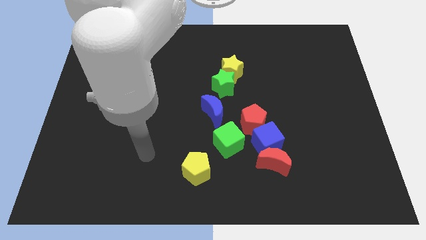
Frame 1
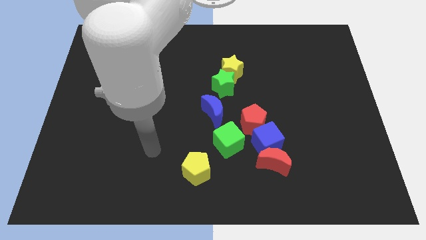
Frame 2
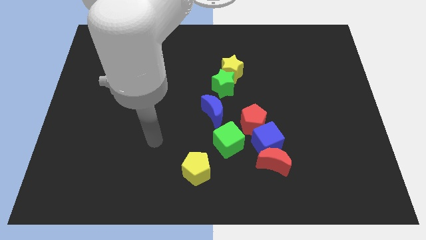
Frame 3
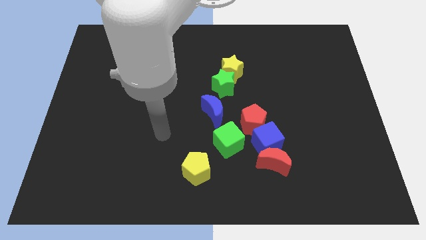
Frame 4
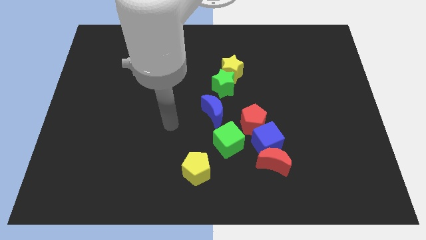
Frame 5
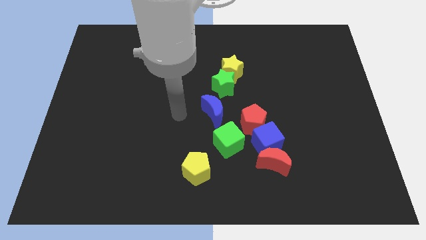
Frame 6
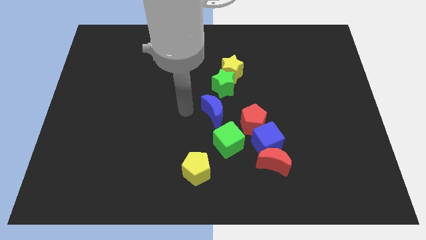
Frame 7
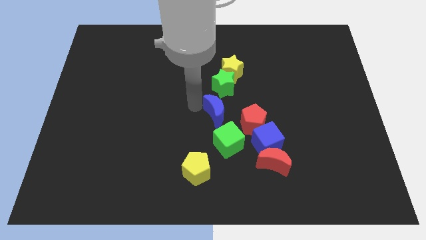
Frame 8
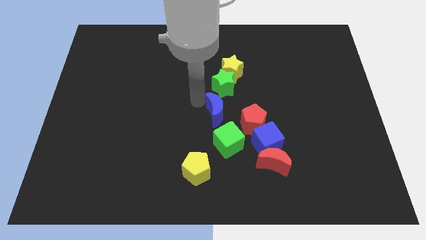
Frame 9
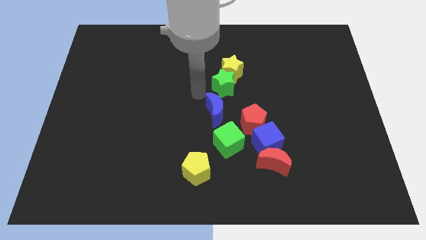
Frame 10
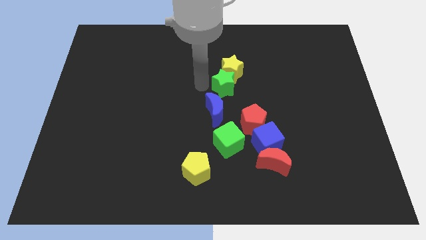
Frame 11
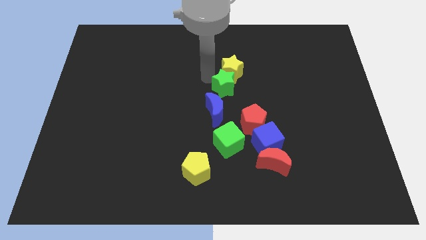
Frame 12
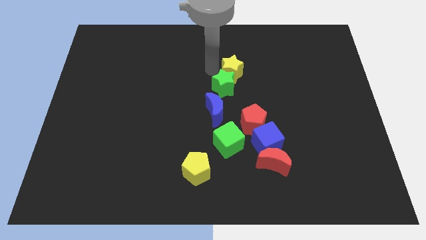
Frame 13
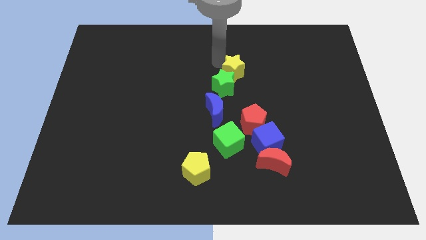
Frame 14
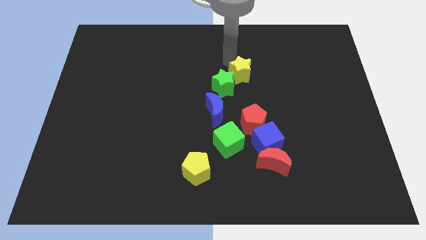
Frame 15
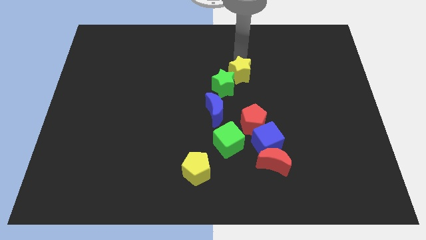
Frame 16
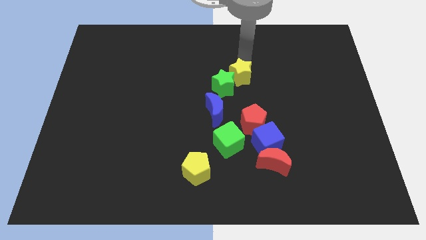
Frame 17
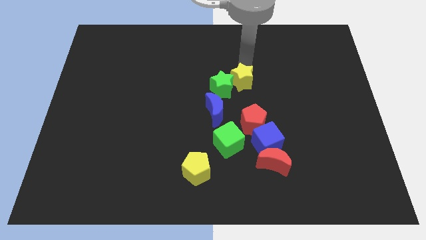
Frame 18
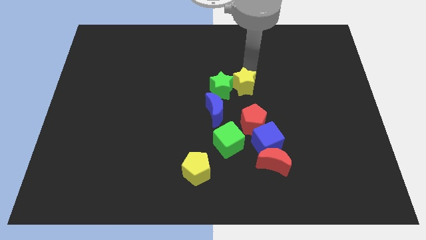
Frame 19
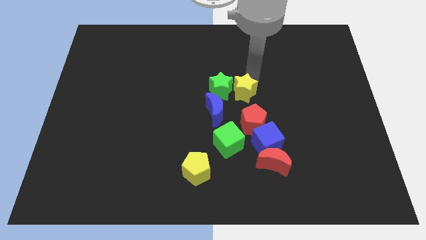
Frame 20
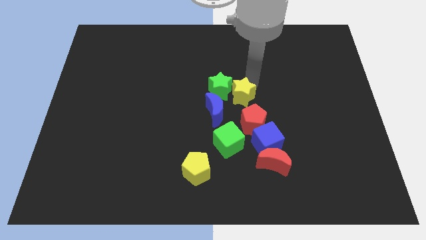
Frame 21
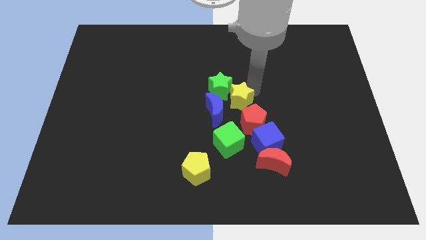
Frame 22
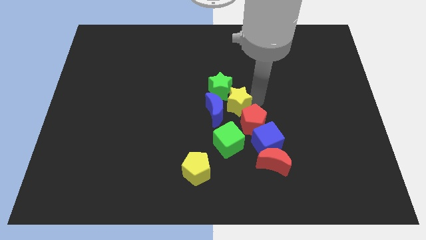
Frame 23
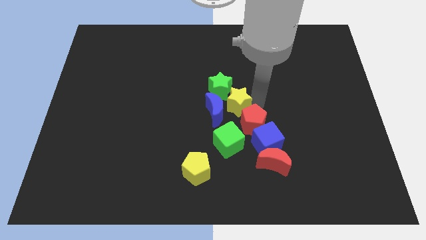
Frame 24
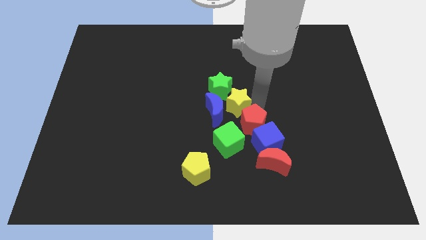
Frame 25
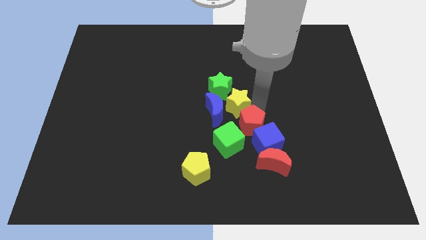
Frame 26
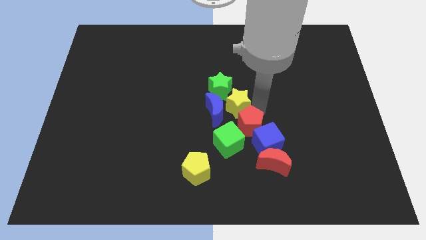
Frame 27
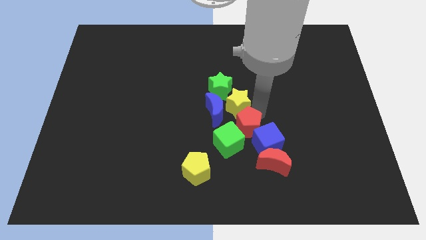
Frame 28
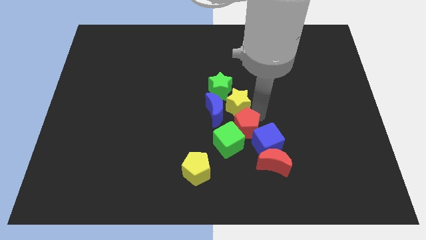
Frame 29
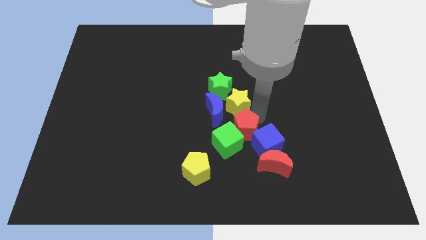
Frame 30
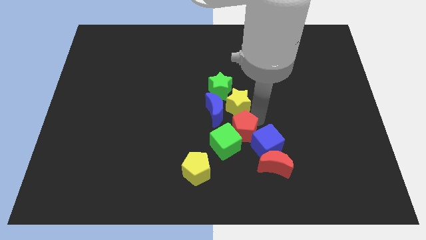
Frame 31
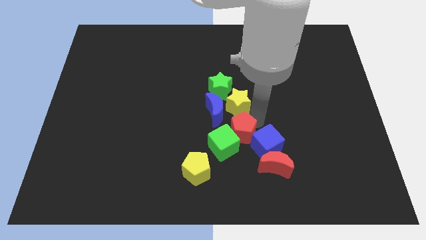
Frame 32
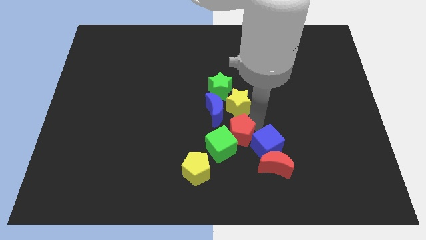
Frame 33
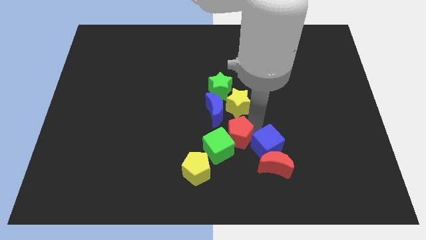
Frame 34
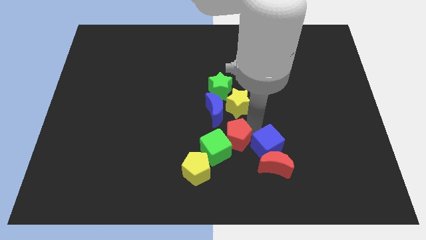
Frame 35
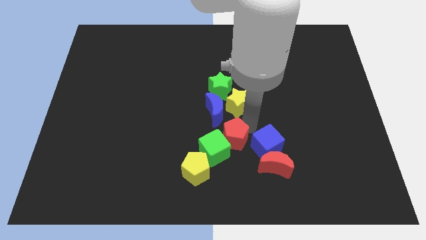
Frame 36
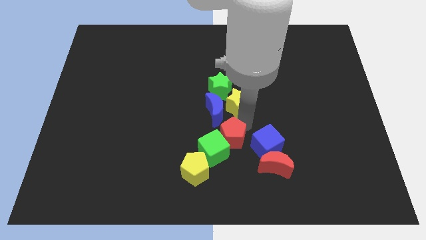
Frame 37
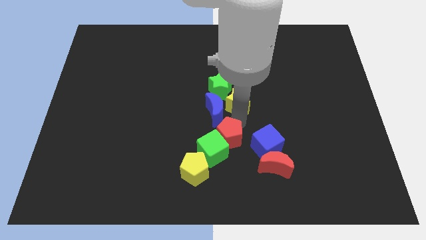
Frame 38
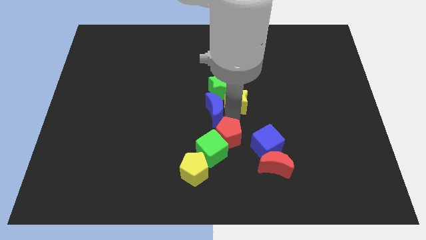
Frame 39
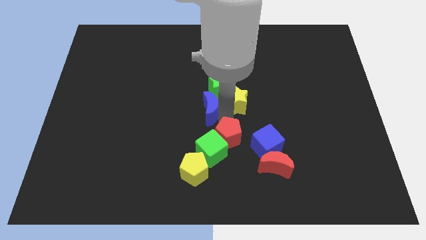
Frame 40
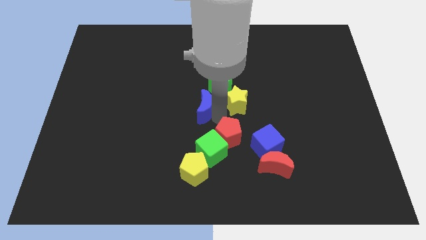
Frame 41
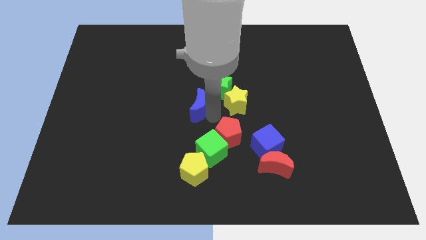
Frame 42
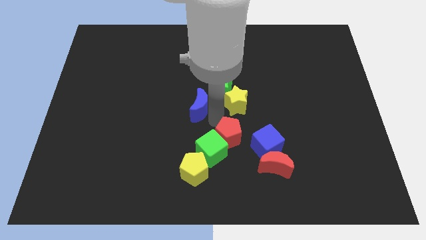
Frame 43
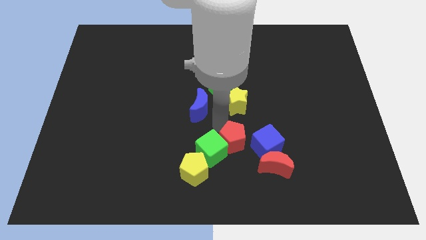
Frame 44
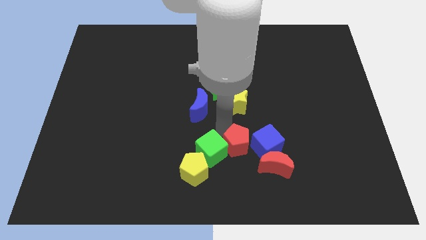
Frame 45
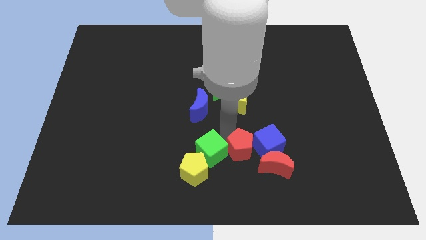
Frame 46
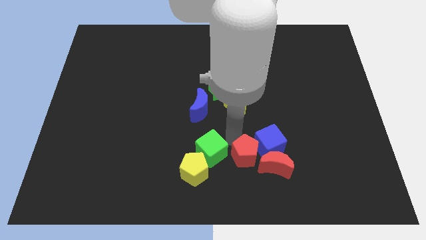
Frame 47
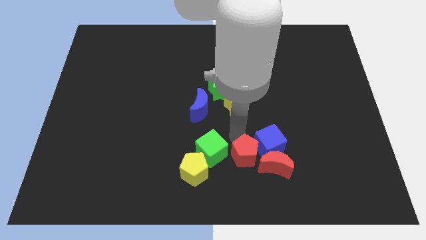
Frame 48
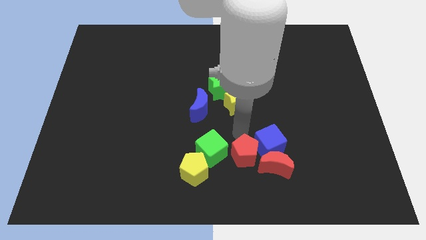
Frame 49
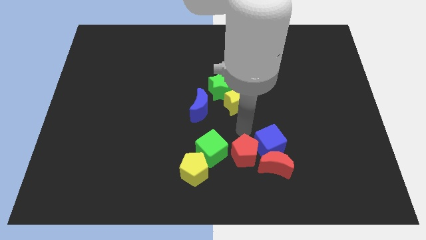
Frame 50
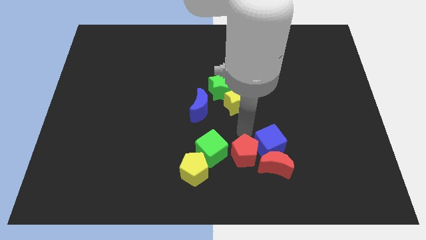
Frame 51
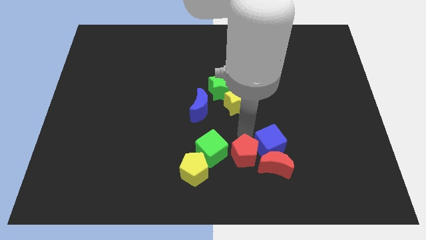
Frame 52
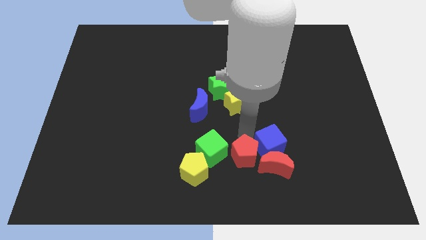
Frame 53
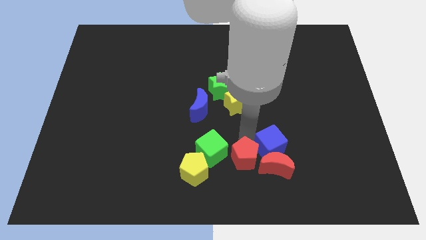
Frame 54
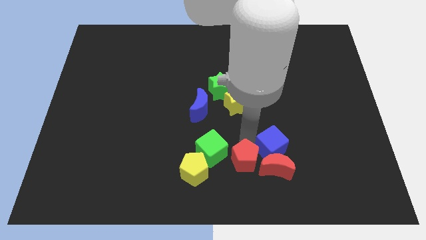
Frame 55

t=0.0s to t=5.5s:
slide the red pentagon to the bottom side
